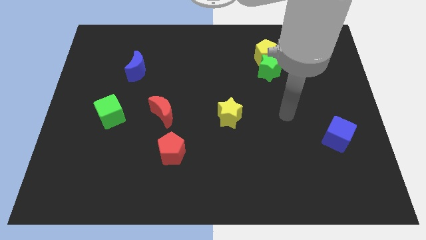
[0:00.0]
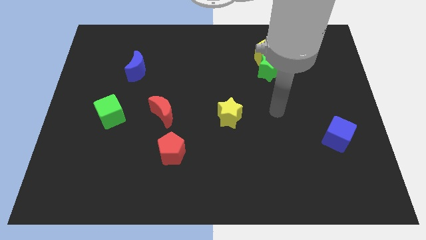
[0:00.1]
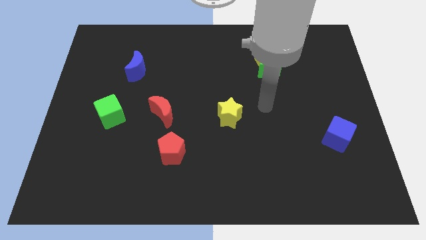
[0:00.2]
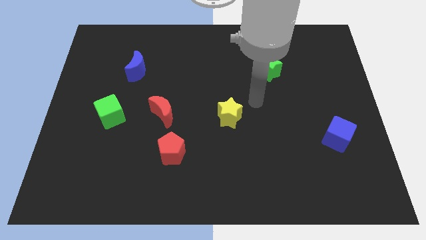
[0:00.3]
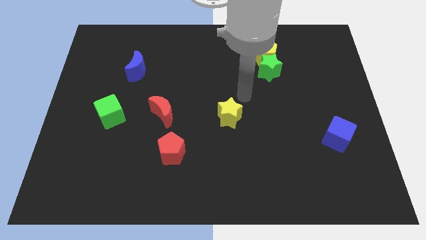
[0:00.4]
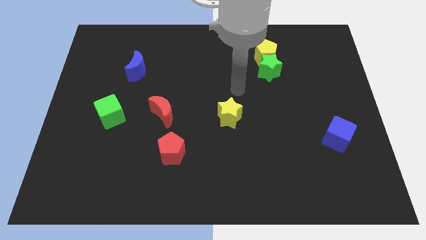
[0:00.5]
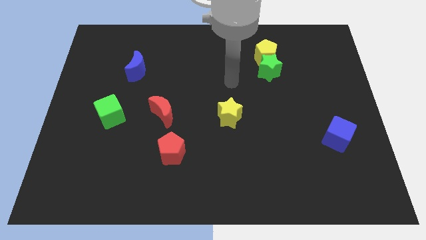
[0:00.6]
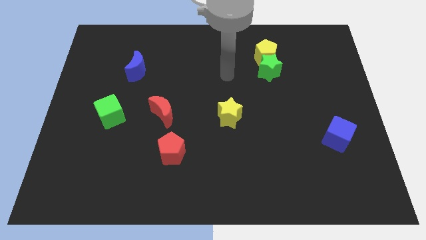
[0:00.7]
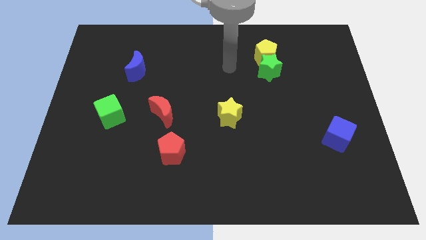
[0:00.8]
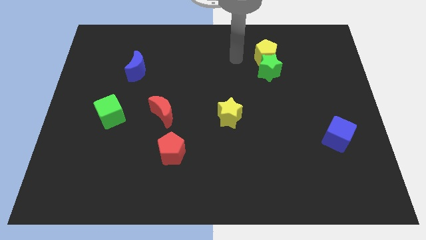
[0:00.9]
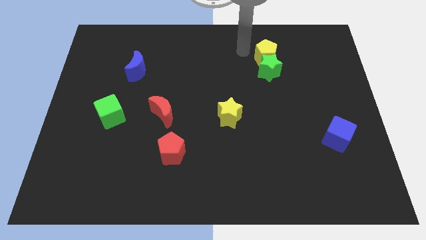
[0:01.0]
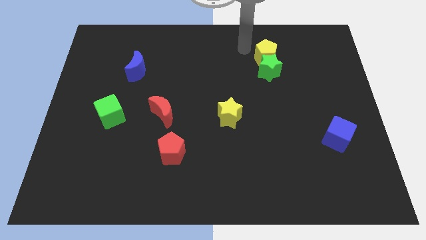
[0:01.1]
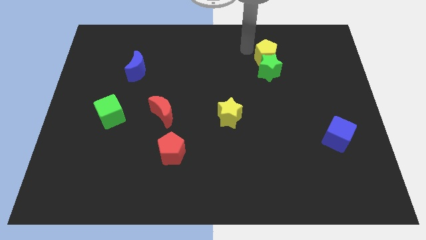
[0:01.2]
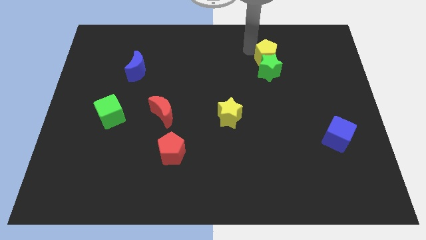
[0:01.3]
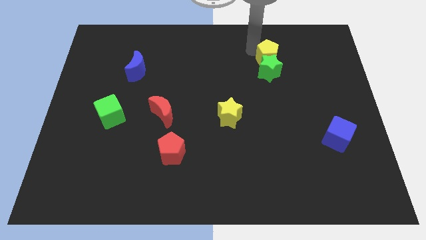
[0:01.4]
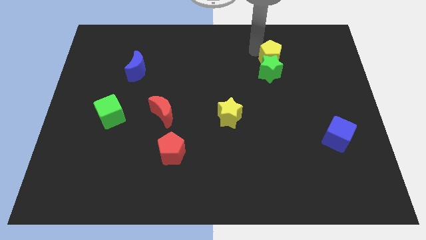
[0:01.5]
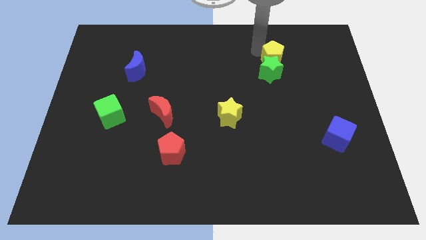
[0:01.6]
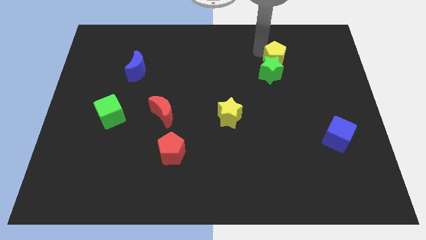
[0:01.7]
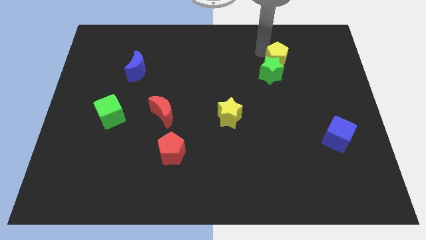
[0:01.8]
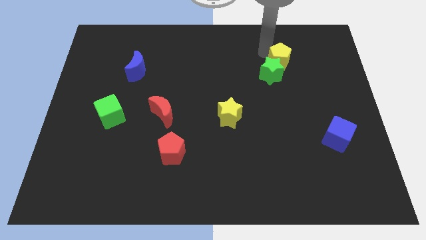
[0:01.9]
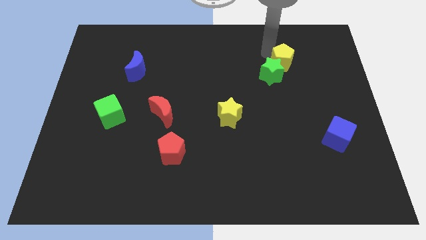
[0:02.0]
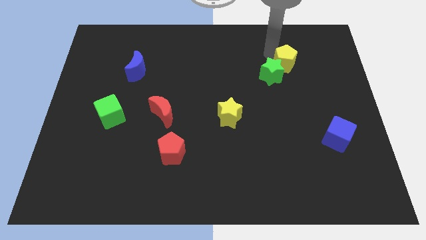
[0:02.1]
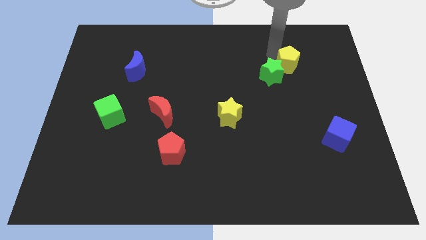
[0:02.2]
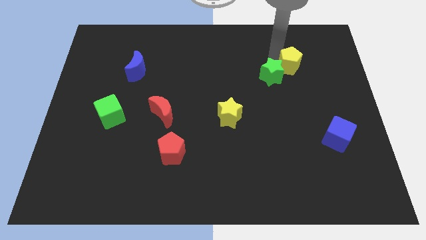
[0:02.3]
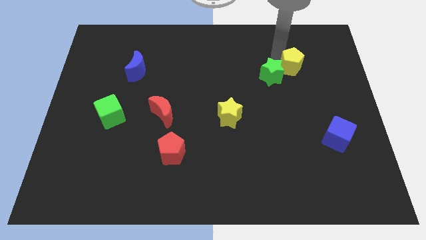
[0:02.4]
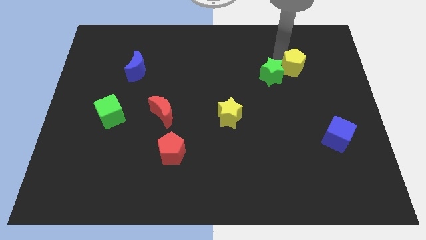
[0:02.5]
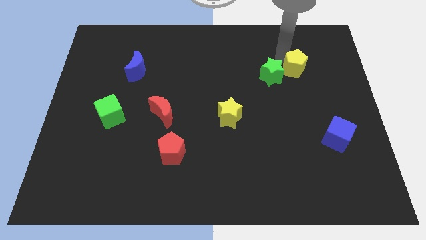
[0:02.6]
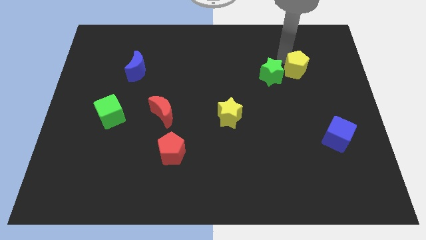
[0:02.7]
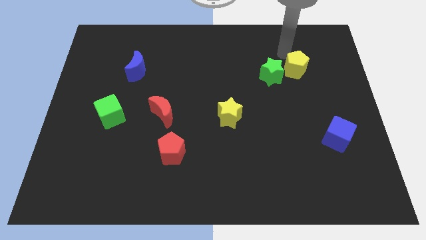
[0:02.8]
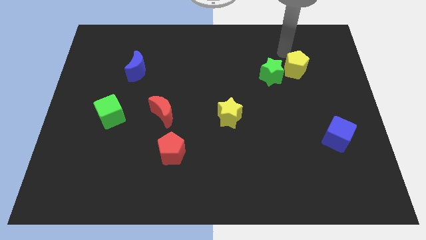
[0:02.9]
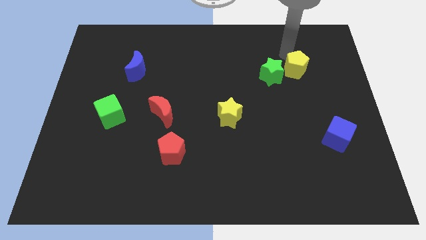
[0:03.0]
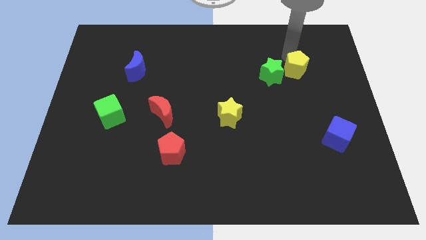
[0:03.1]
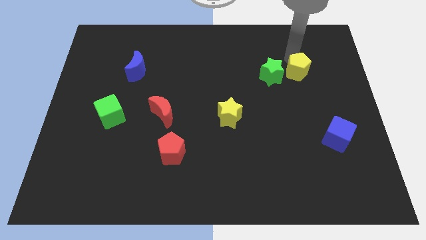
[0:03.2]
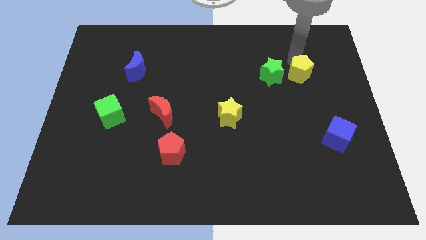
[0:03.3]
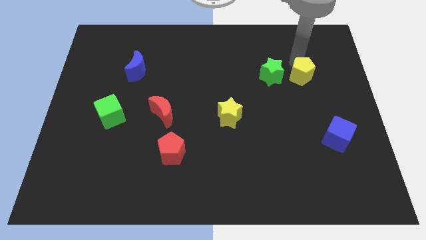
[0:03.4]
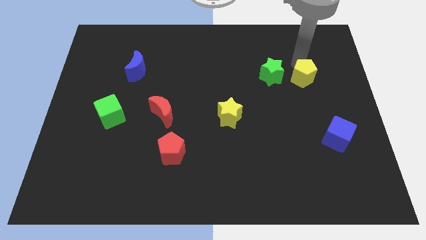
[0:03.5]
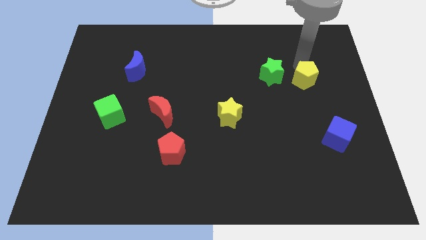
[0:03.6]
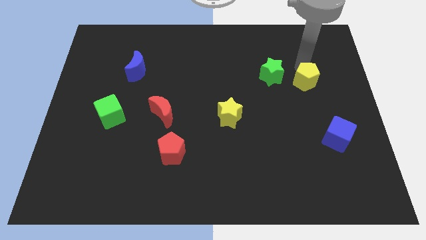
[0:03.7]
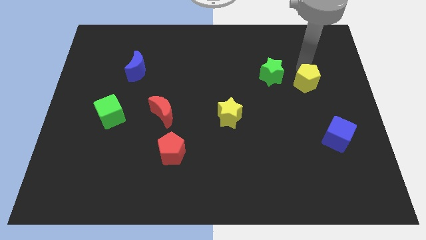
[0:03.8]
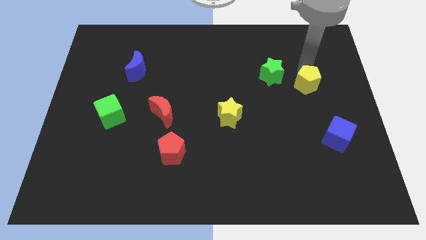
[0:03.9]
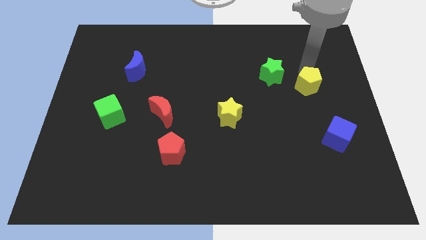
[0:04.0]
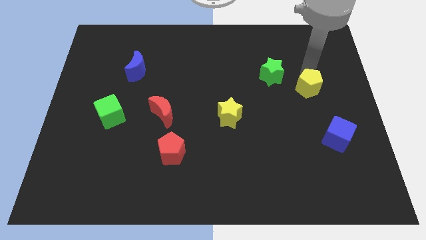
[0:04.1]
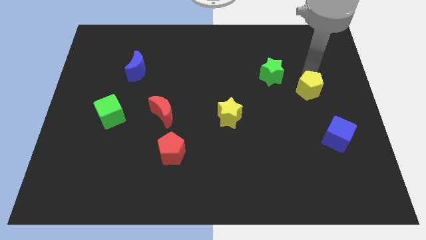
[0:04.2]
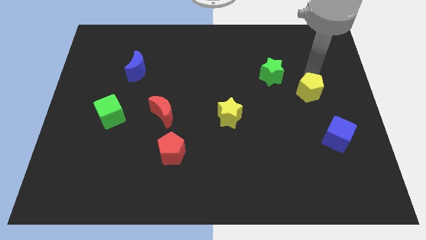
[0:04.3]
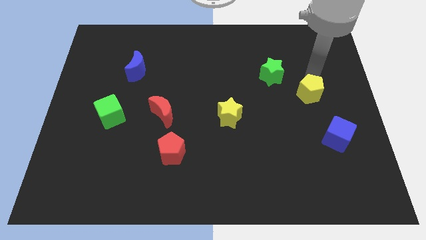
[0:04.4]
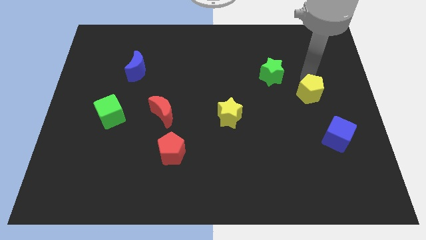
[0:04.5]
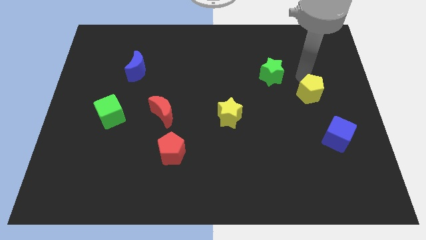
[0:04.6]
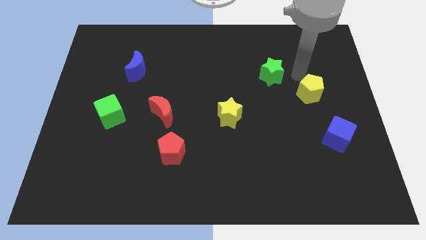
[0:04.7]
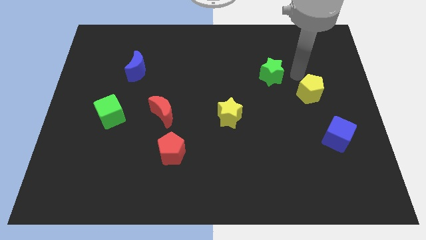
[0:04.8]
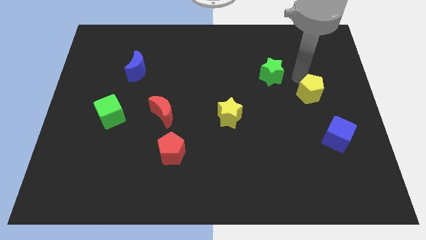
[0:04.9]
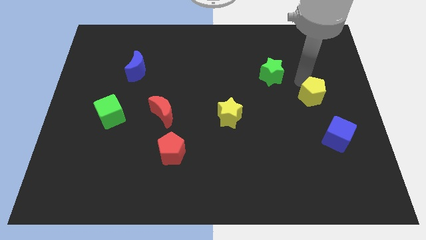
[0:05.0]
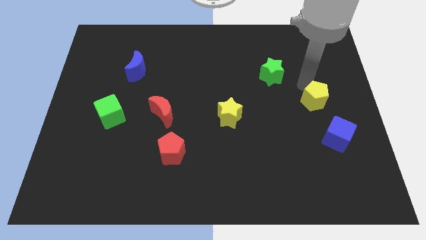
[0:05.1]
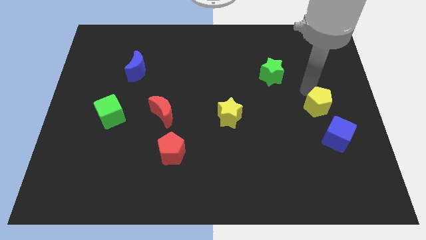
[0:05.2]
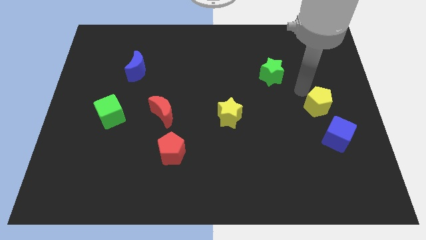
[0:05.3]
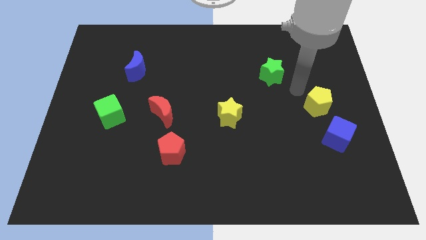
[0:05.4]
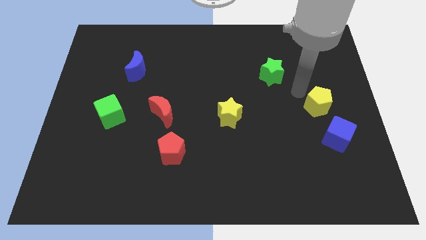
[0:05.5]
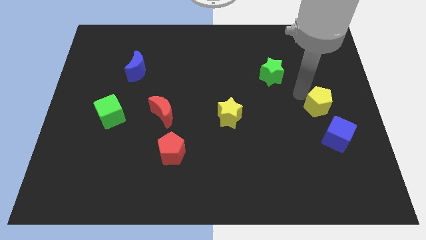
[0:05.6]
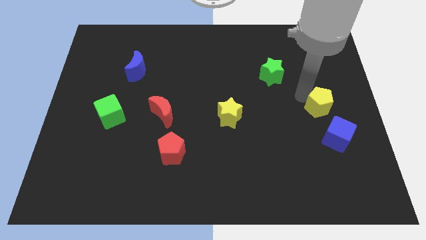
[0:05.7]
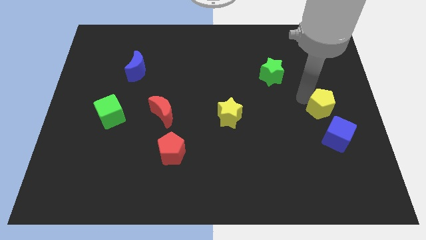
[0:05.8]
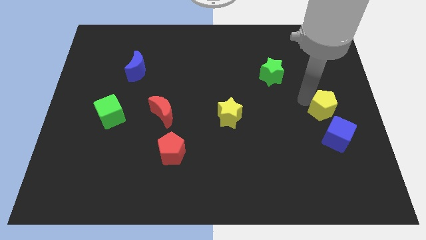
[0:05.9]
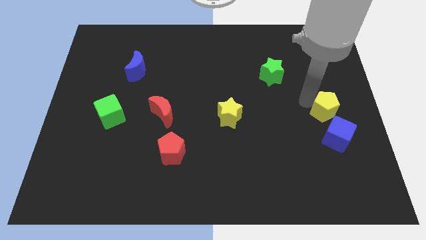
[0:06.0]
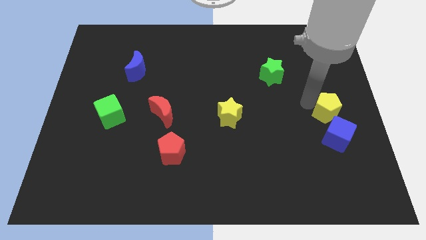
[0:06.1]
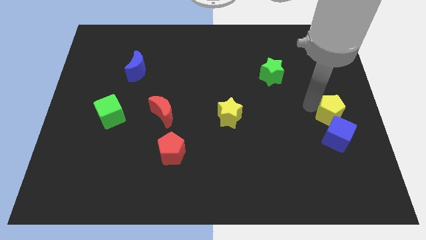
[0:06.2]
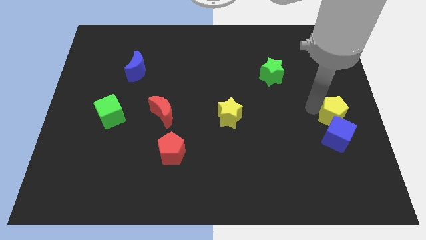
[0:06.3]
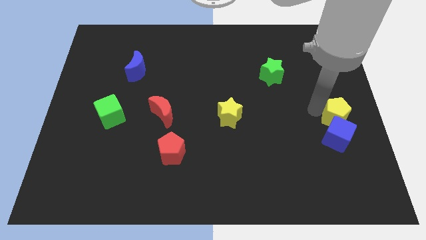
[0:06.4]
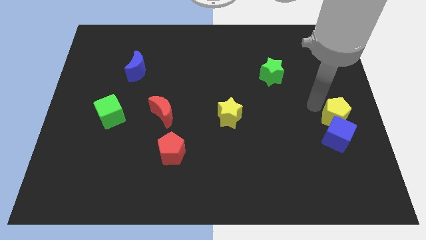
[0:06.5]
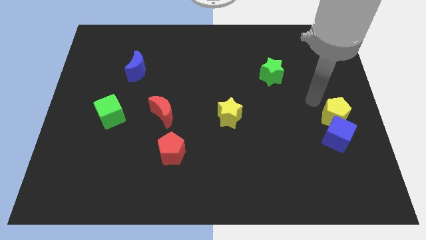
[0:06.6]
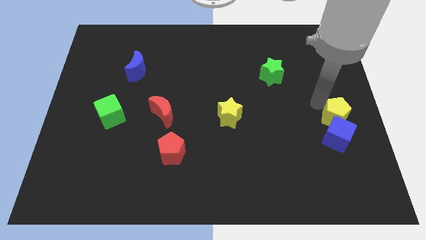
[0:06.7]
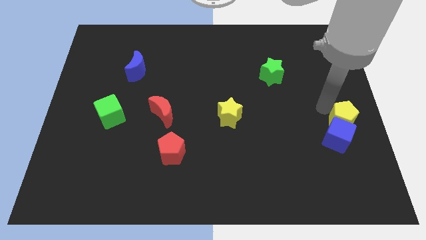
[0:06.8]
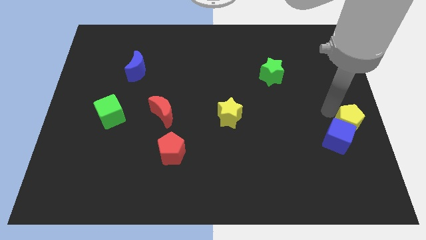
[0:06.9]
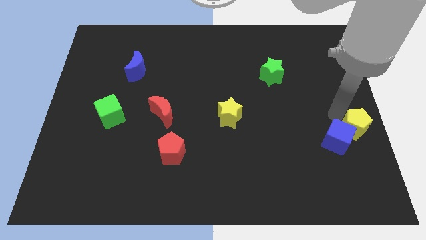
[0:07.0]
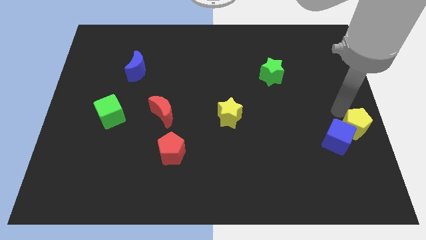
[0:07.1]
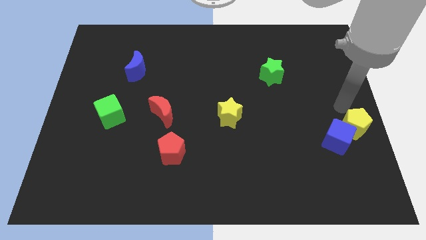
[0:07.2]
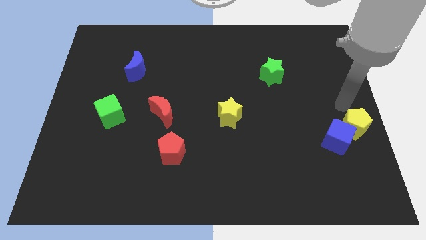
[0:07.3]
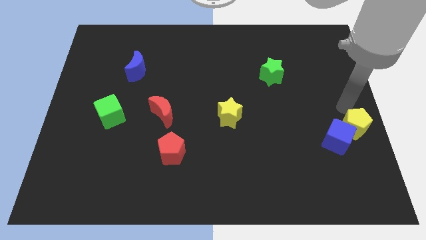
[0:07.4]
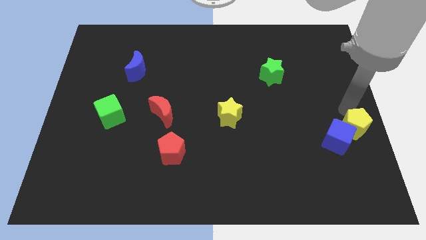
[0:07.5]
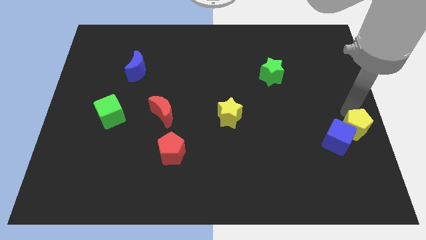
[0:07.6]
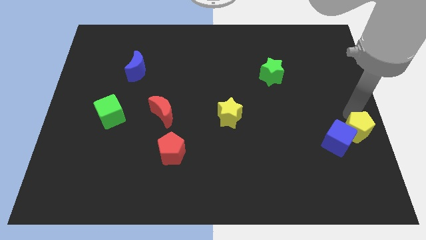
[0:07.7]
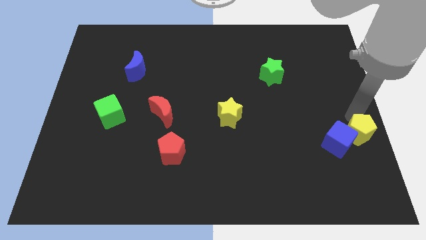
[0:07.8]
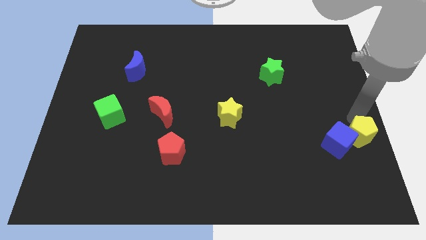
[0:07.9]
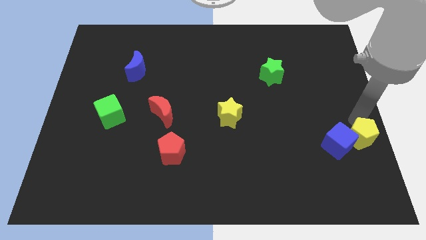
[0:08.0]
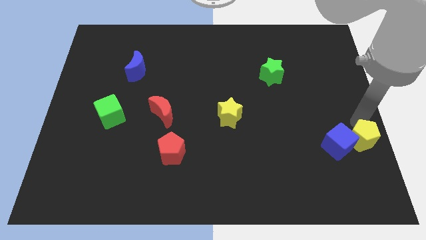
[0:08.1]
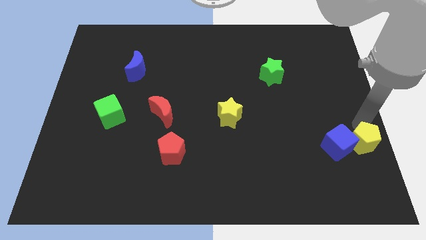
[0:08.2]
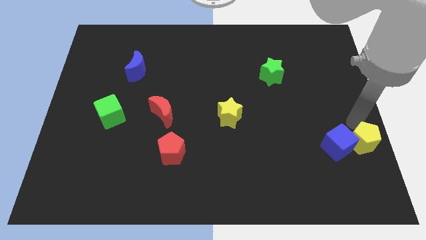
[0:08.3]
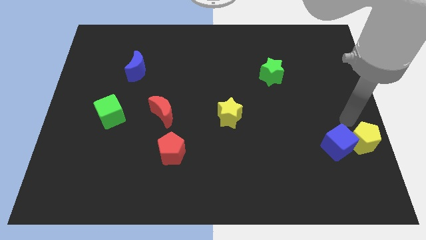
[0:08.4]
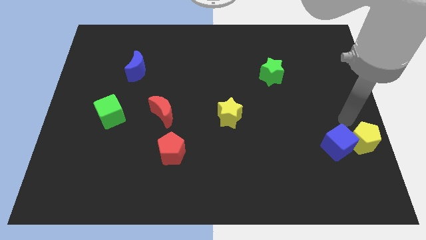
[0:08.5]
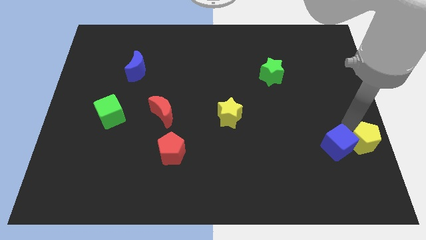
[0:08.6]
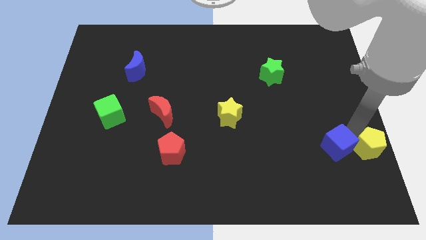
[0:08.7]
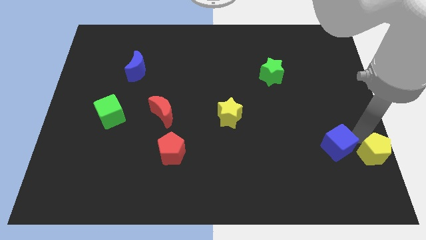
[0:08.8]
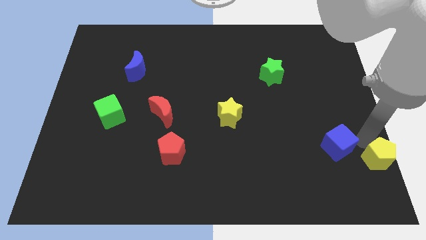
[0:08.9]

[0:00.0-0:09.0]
slide the yellow pentagon to the lower right corner
